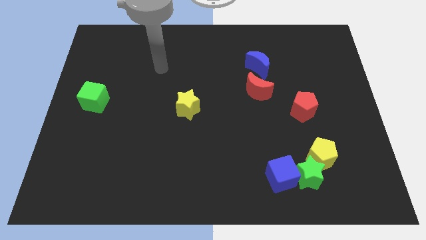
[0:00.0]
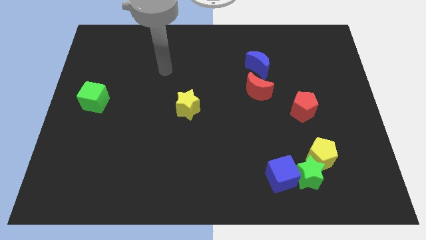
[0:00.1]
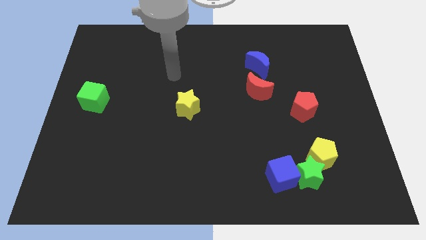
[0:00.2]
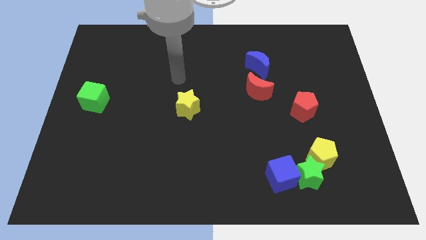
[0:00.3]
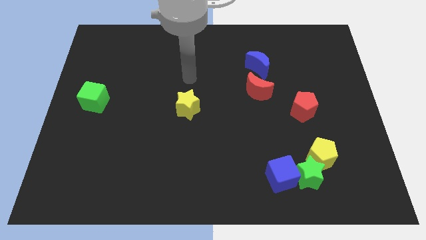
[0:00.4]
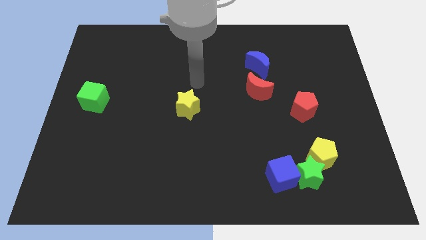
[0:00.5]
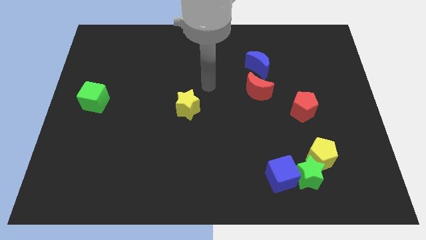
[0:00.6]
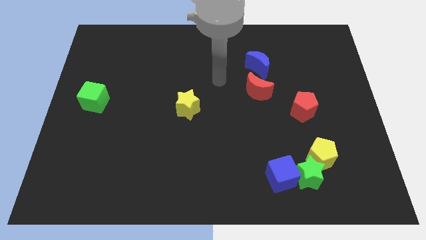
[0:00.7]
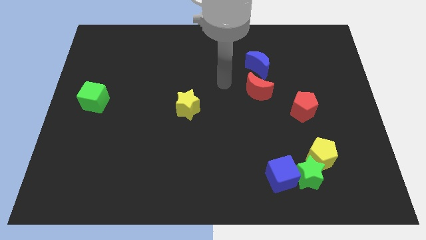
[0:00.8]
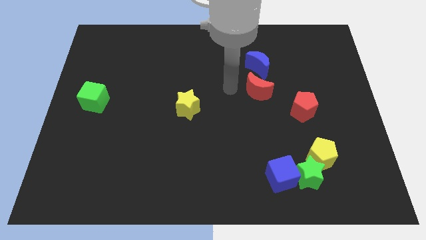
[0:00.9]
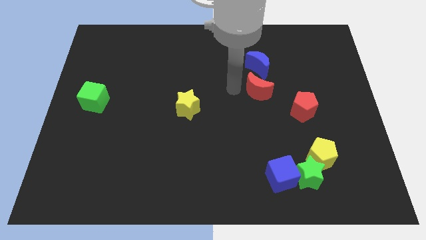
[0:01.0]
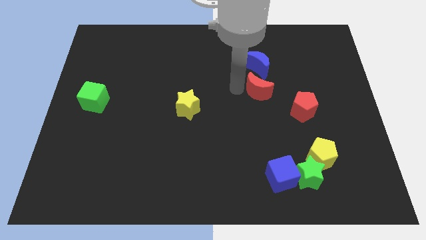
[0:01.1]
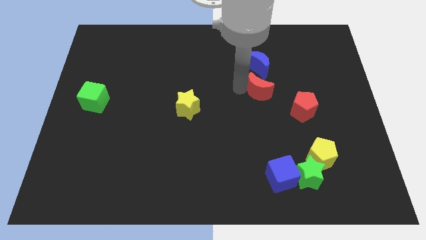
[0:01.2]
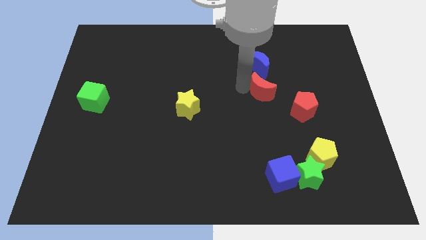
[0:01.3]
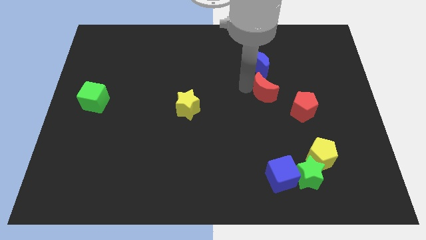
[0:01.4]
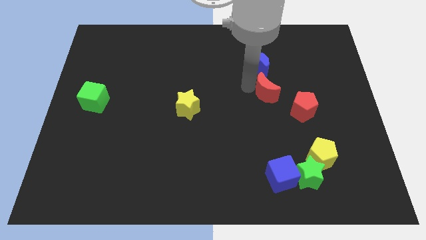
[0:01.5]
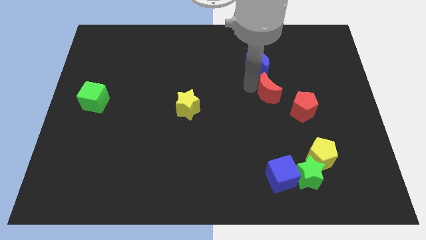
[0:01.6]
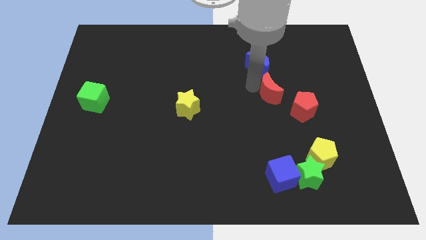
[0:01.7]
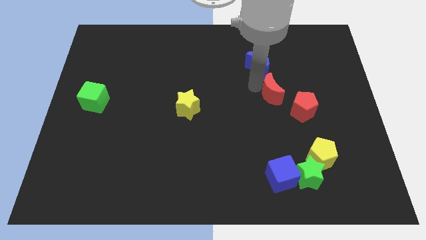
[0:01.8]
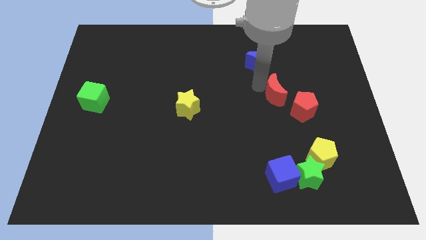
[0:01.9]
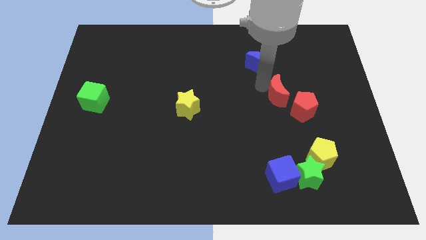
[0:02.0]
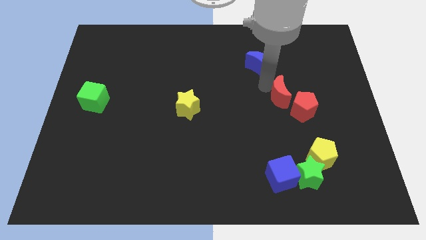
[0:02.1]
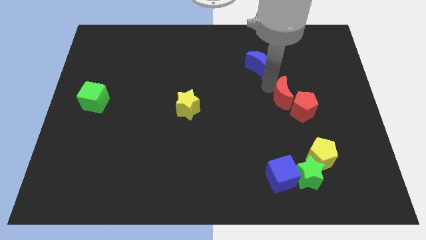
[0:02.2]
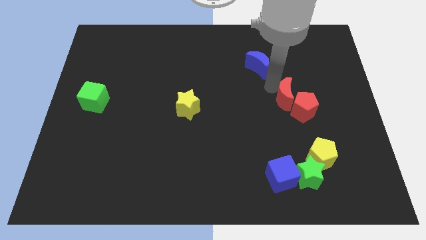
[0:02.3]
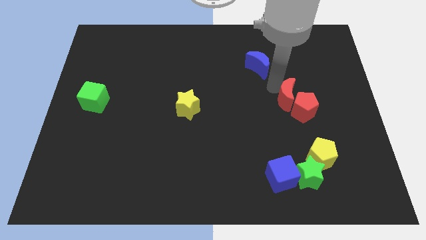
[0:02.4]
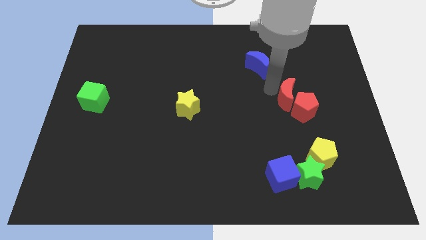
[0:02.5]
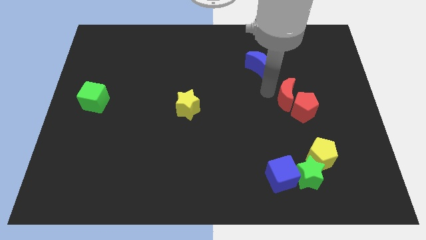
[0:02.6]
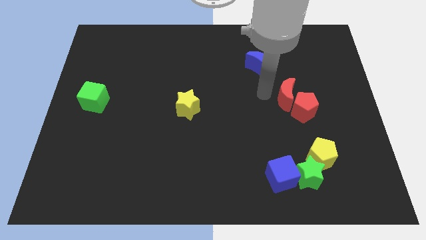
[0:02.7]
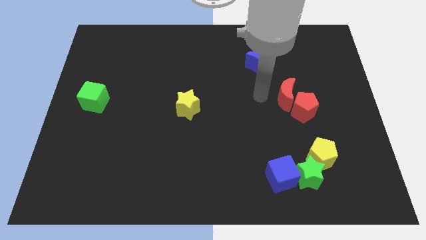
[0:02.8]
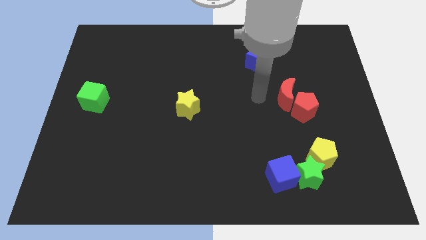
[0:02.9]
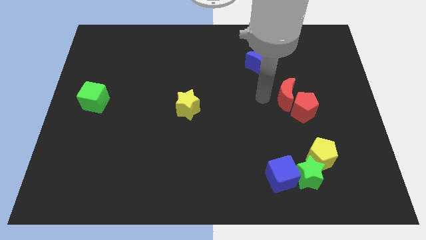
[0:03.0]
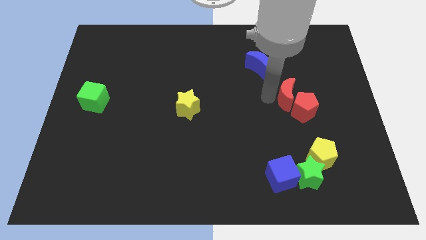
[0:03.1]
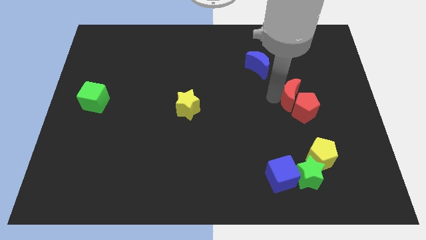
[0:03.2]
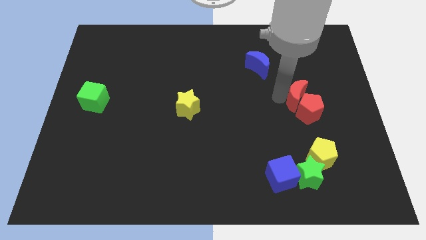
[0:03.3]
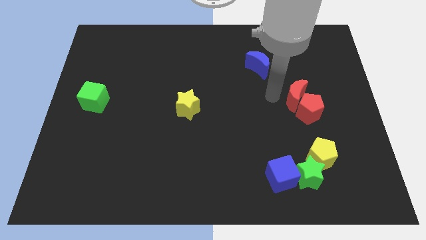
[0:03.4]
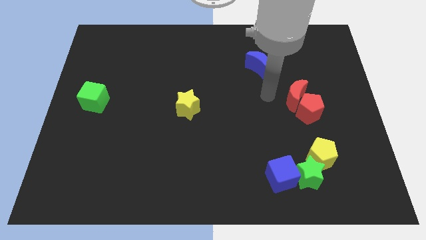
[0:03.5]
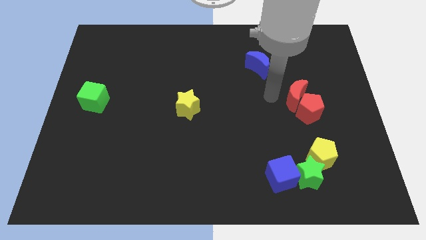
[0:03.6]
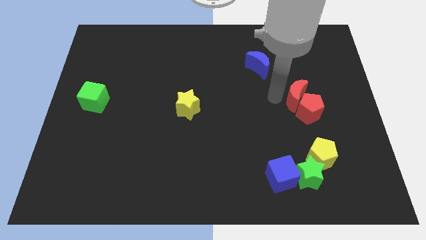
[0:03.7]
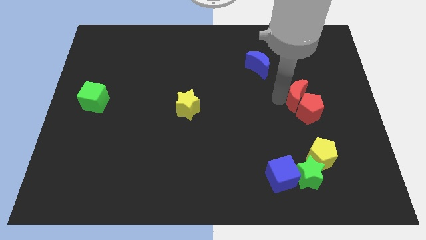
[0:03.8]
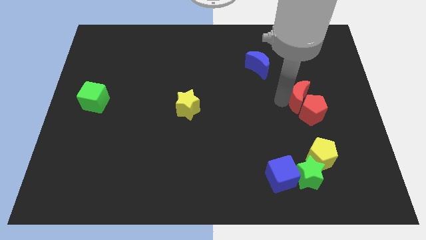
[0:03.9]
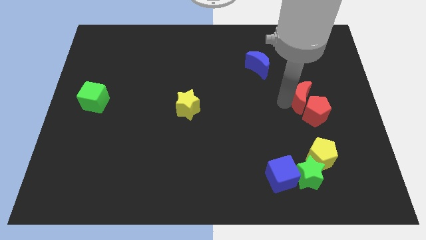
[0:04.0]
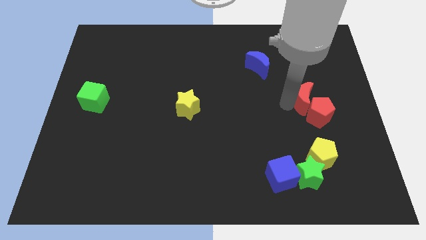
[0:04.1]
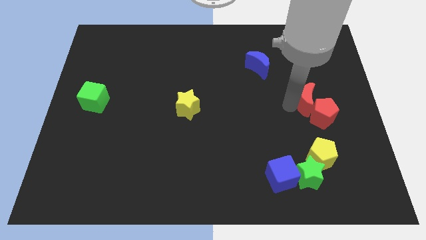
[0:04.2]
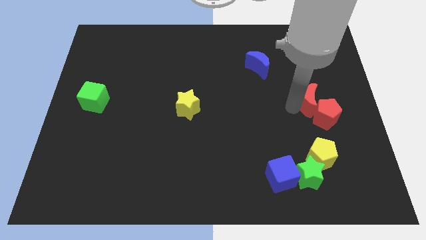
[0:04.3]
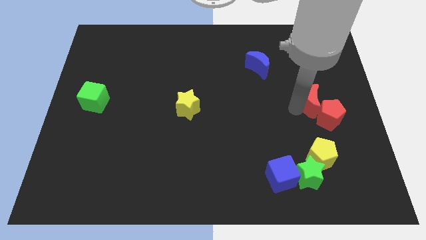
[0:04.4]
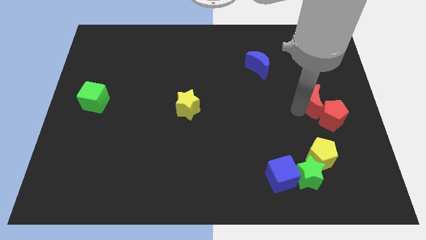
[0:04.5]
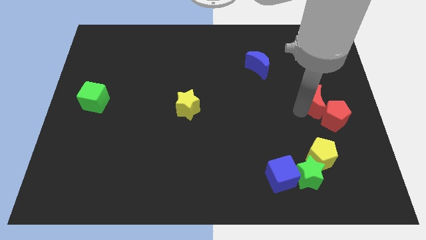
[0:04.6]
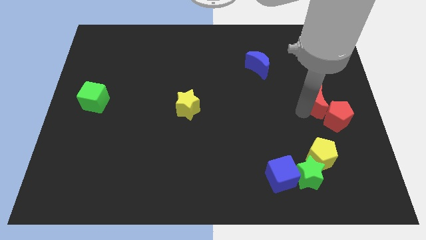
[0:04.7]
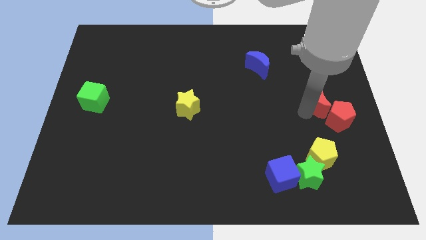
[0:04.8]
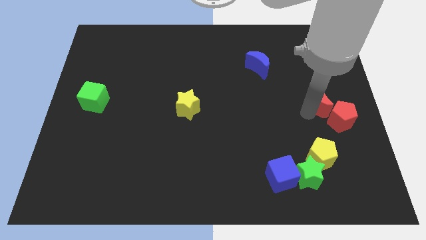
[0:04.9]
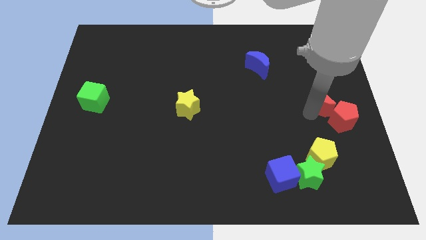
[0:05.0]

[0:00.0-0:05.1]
slide the red moon to the center right
